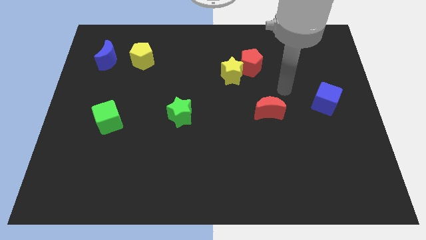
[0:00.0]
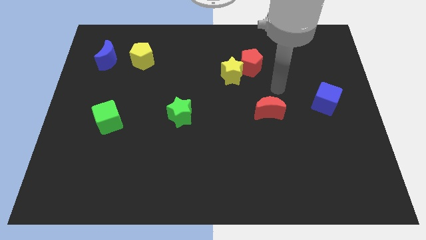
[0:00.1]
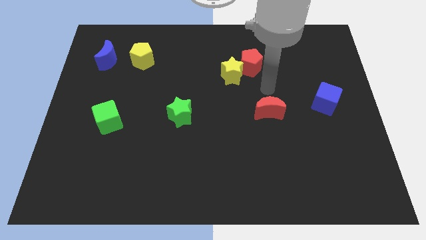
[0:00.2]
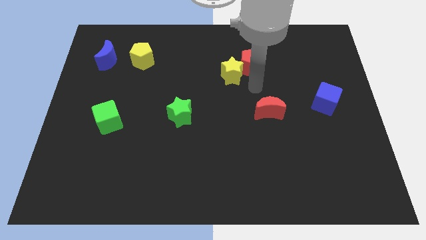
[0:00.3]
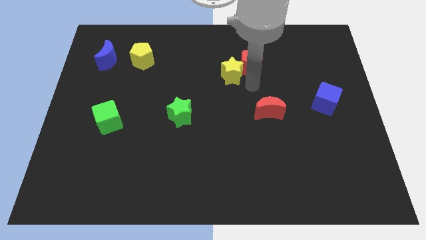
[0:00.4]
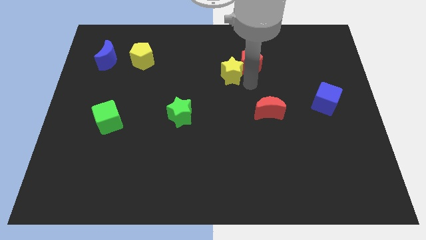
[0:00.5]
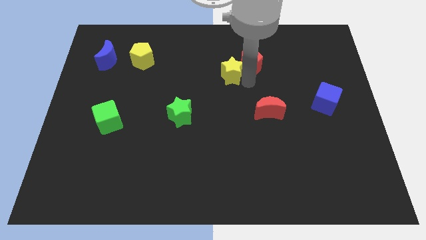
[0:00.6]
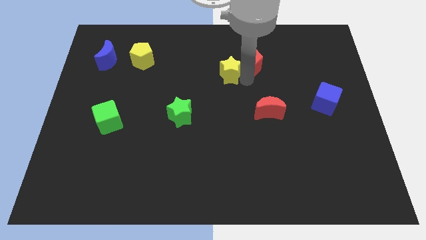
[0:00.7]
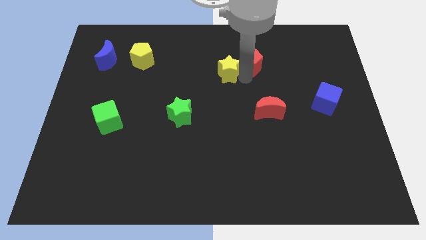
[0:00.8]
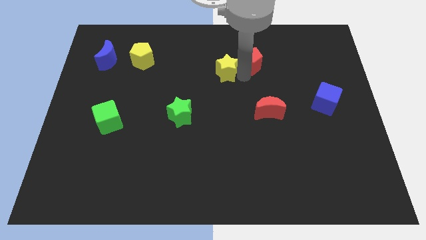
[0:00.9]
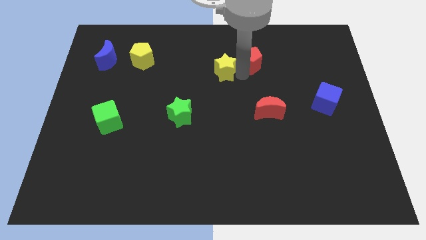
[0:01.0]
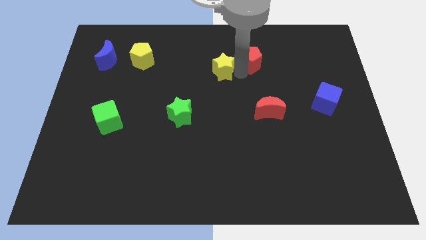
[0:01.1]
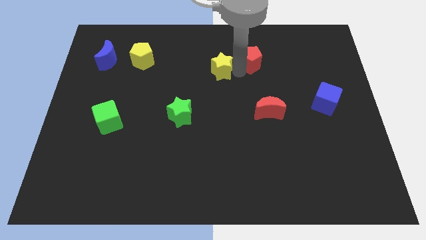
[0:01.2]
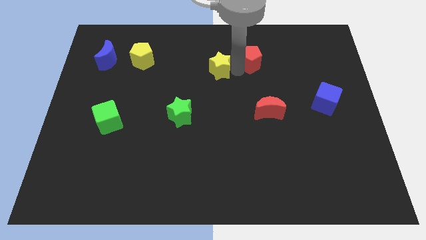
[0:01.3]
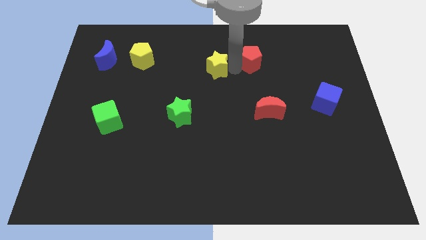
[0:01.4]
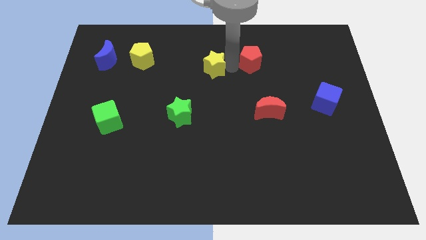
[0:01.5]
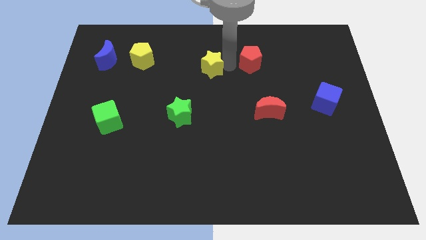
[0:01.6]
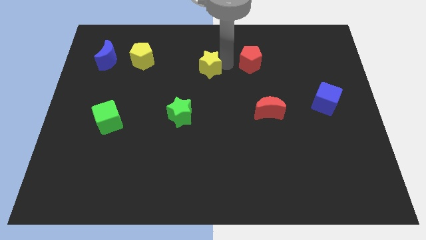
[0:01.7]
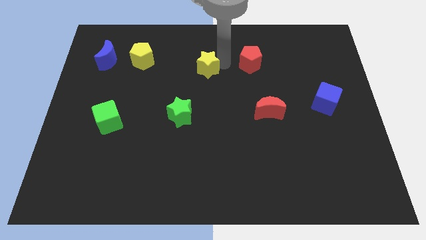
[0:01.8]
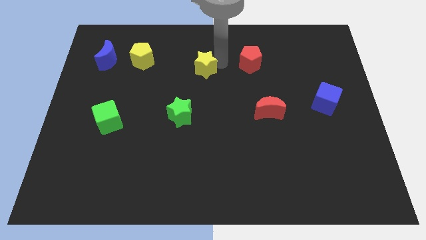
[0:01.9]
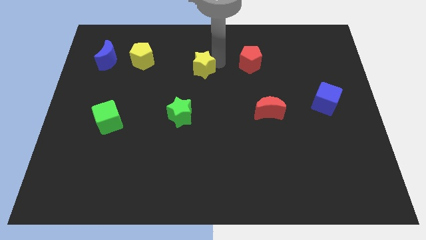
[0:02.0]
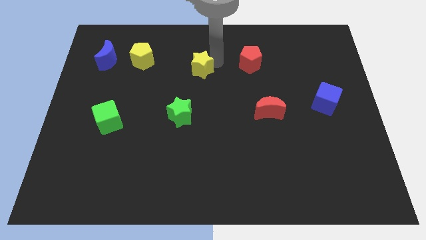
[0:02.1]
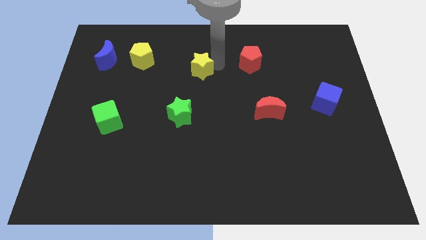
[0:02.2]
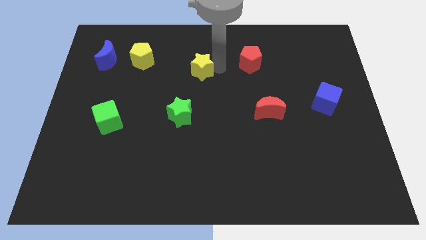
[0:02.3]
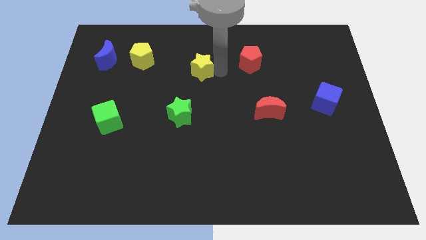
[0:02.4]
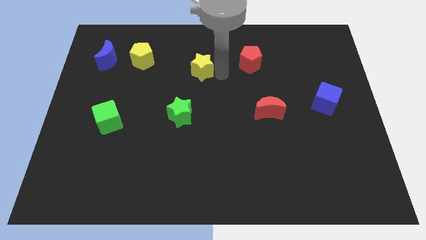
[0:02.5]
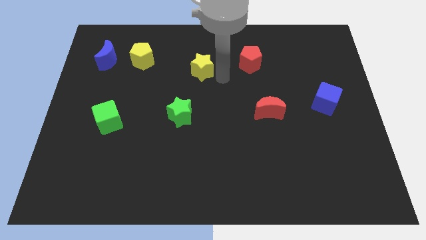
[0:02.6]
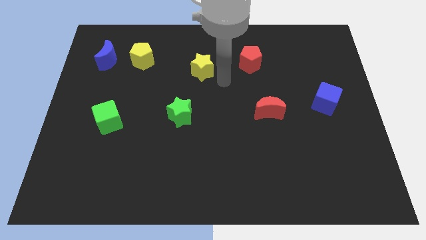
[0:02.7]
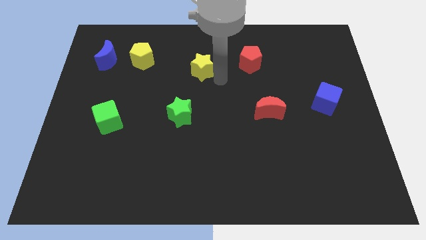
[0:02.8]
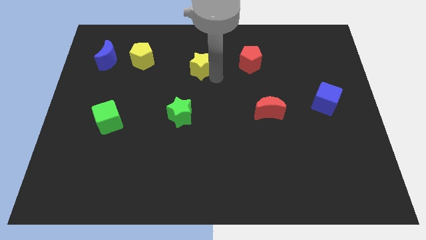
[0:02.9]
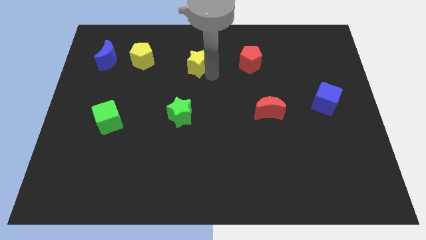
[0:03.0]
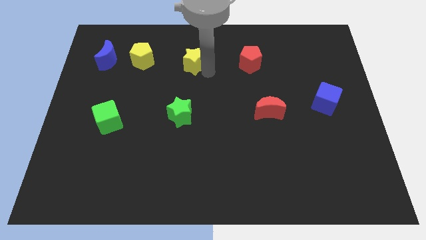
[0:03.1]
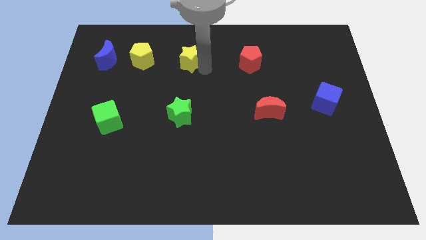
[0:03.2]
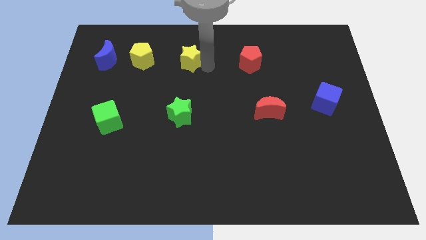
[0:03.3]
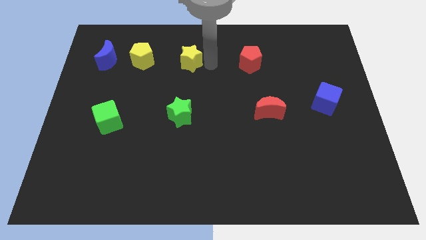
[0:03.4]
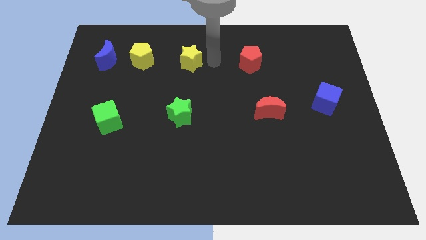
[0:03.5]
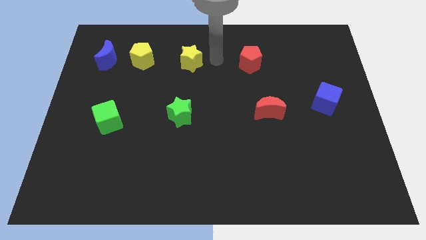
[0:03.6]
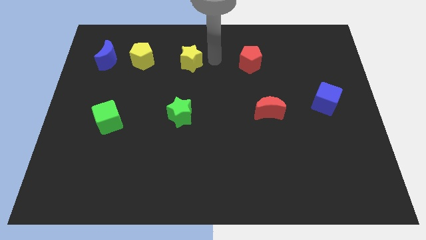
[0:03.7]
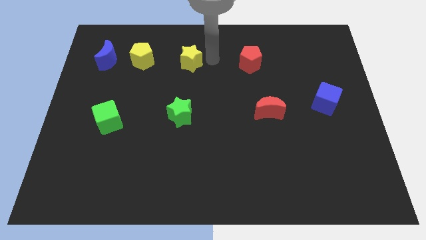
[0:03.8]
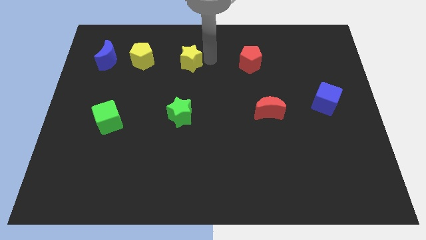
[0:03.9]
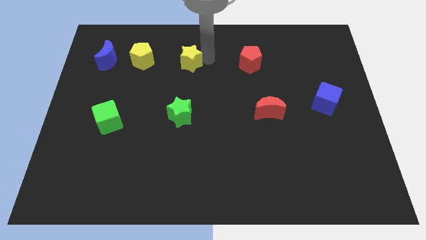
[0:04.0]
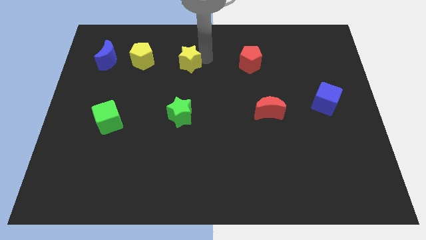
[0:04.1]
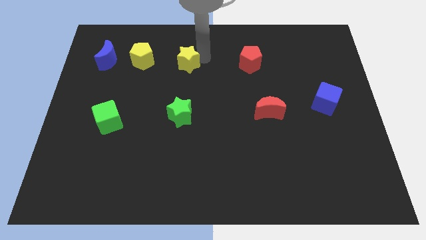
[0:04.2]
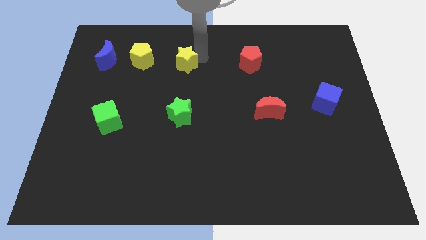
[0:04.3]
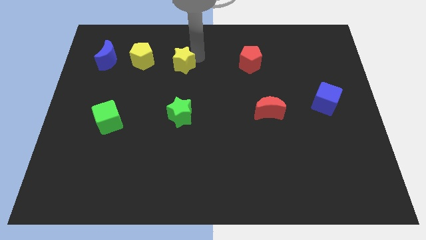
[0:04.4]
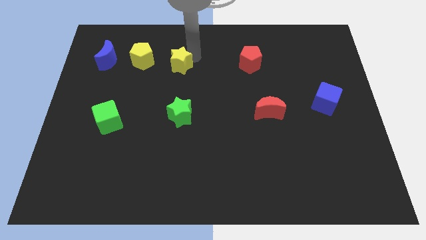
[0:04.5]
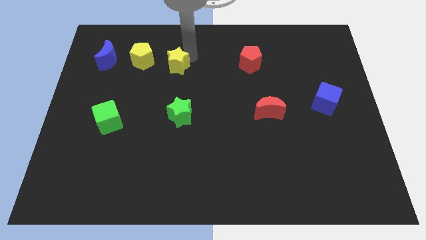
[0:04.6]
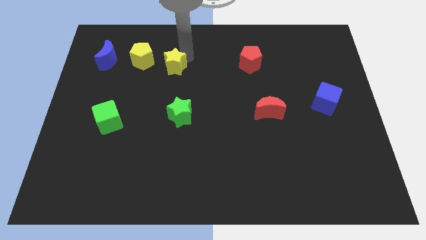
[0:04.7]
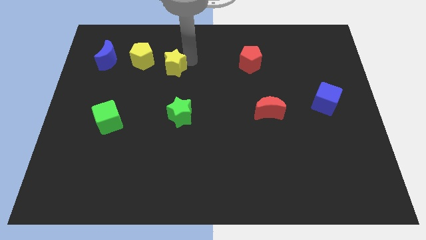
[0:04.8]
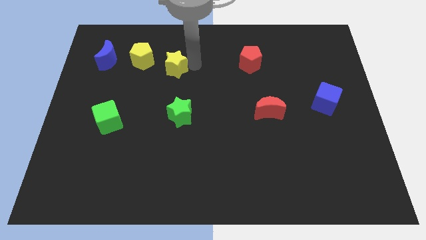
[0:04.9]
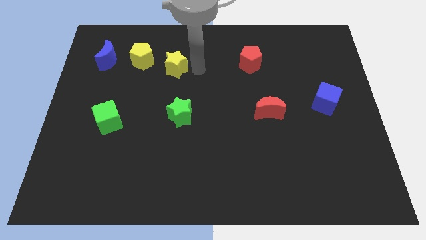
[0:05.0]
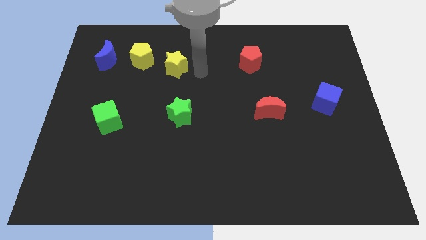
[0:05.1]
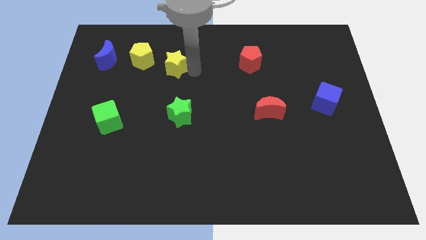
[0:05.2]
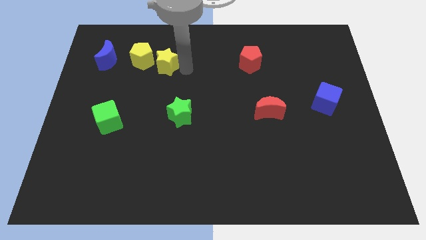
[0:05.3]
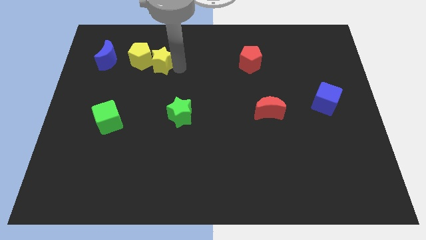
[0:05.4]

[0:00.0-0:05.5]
slide the yellow star close to the yellow pentagon

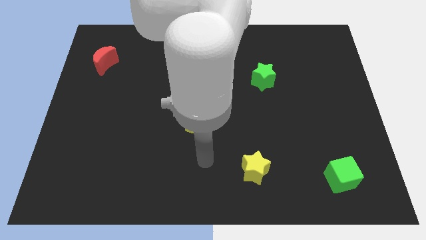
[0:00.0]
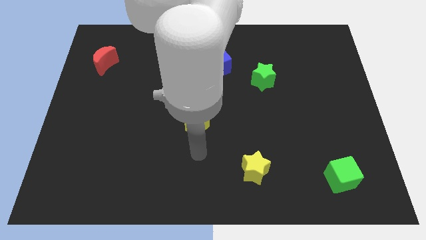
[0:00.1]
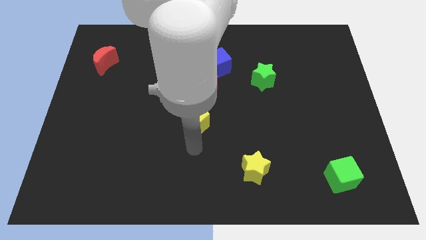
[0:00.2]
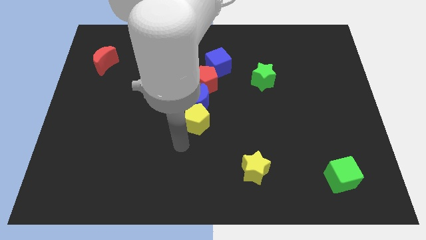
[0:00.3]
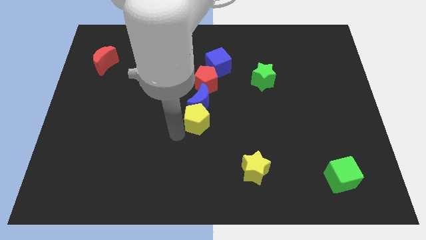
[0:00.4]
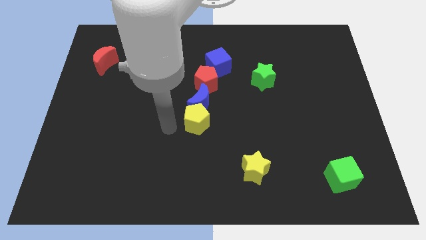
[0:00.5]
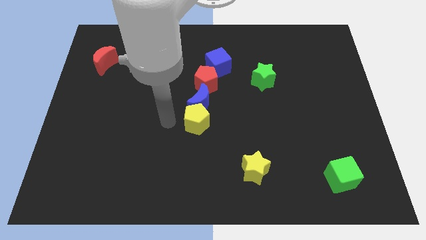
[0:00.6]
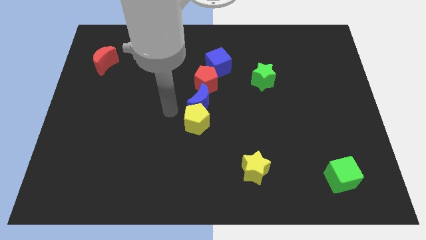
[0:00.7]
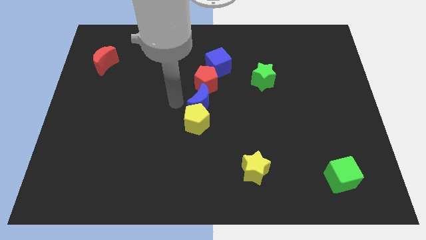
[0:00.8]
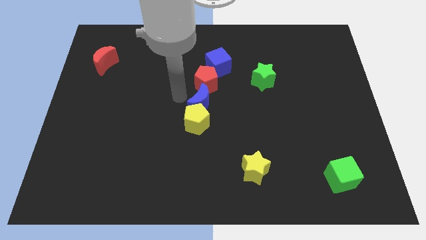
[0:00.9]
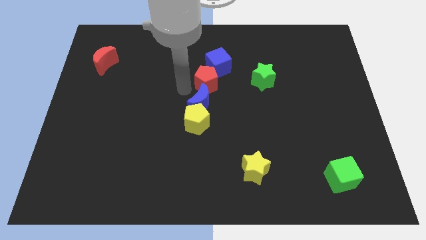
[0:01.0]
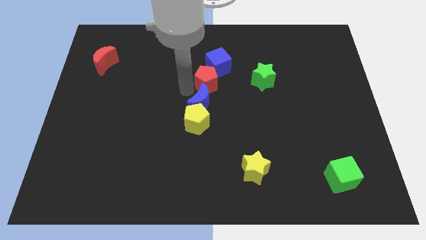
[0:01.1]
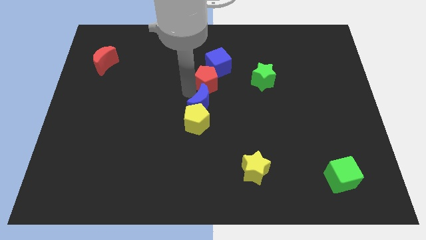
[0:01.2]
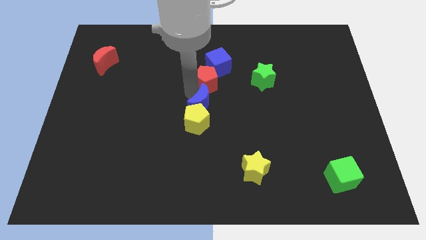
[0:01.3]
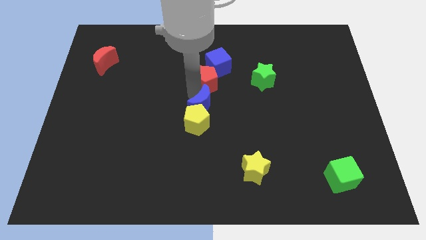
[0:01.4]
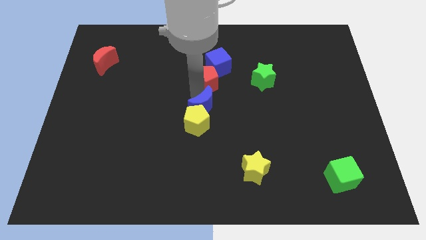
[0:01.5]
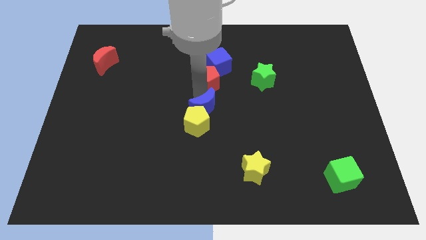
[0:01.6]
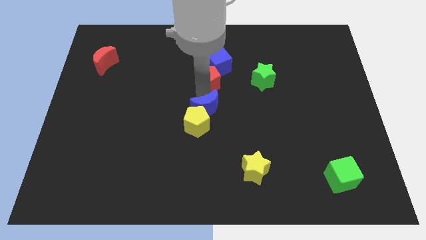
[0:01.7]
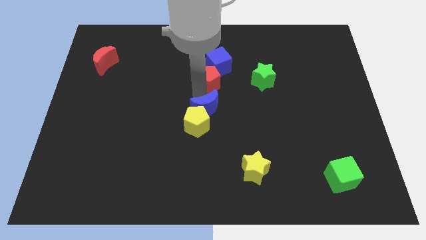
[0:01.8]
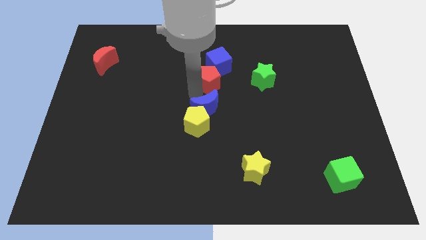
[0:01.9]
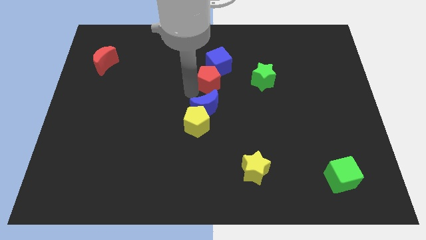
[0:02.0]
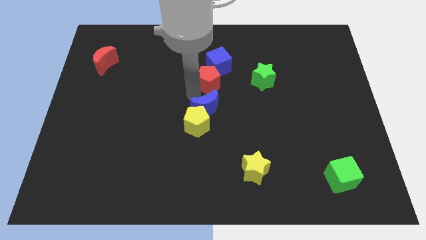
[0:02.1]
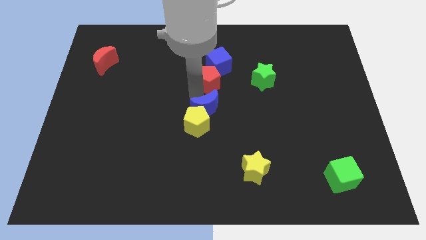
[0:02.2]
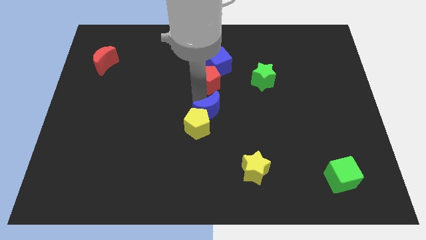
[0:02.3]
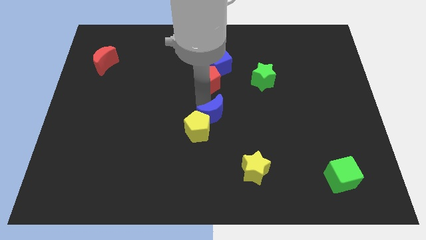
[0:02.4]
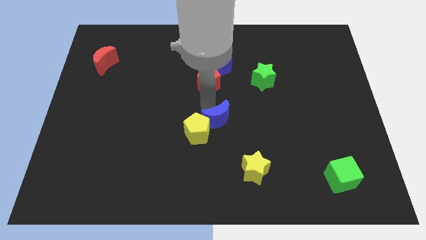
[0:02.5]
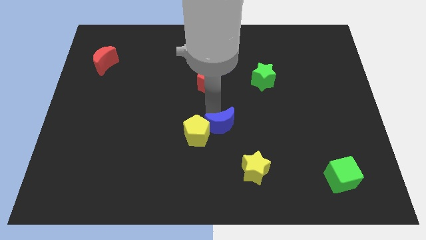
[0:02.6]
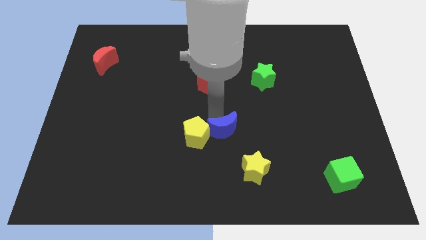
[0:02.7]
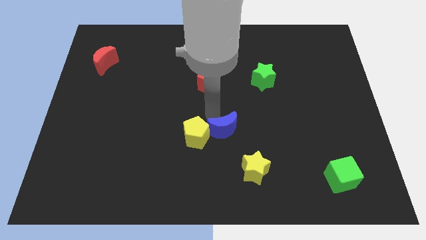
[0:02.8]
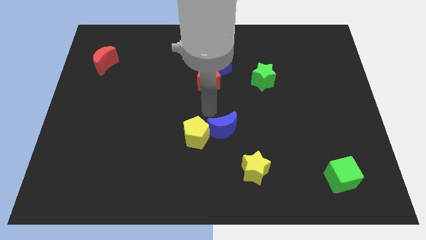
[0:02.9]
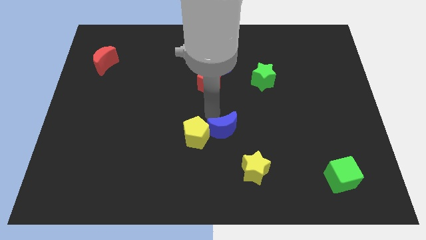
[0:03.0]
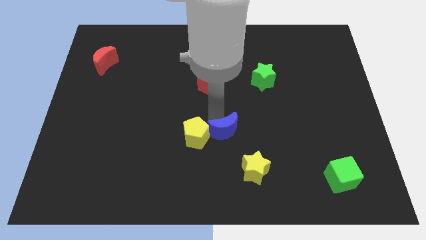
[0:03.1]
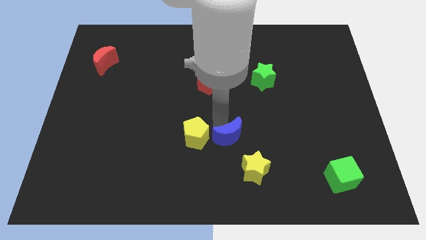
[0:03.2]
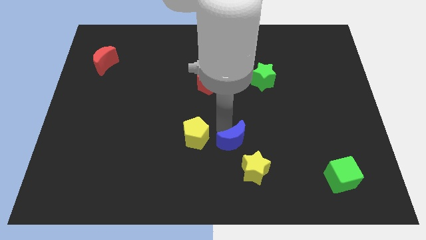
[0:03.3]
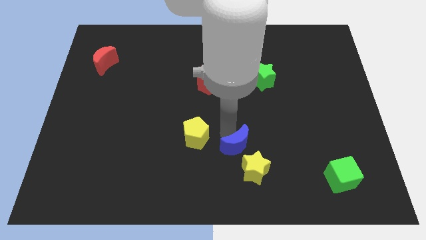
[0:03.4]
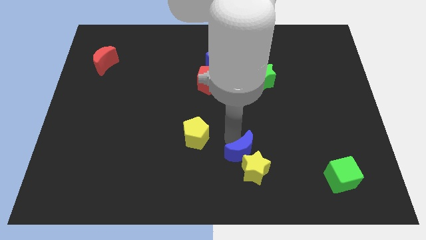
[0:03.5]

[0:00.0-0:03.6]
put the blue moon to the yellow star
